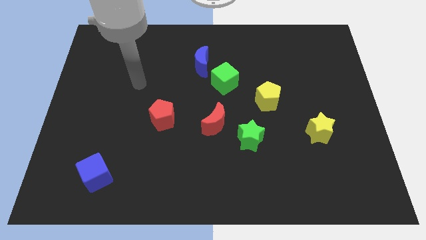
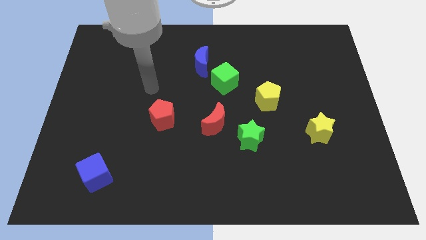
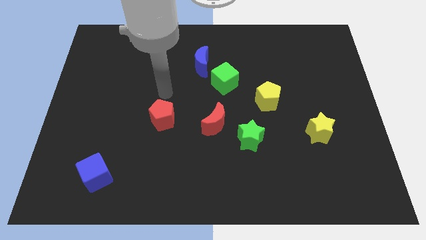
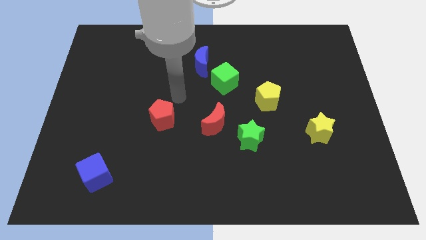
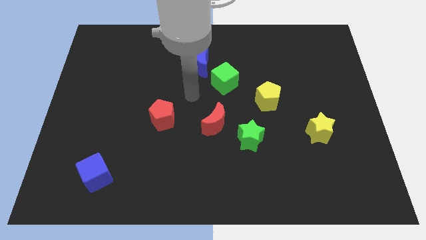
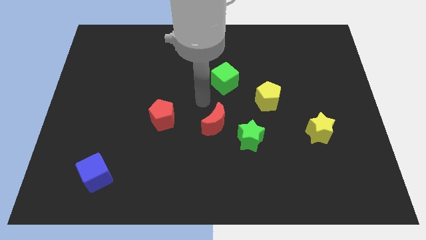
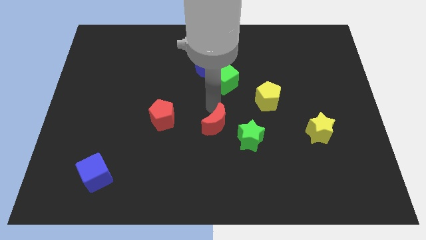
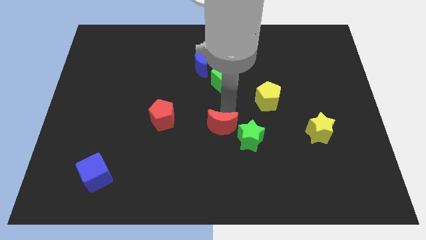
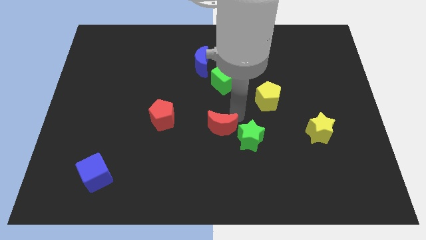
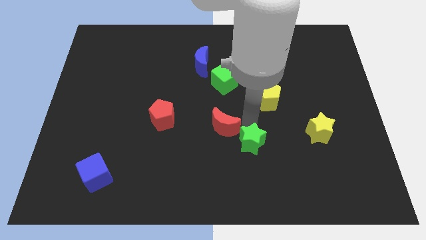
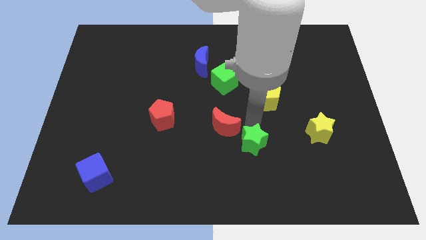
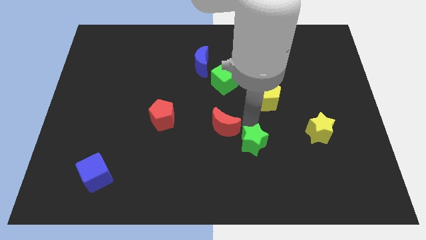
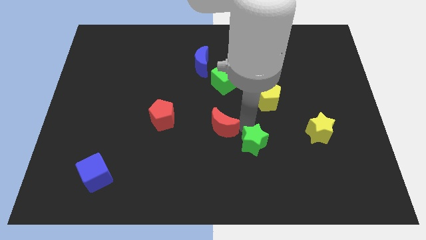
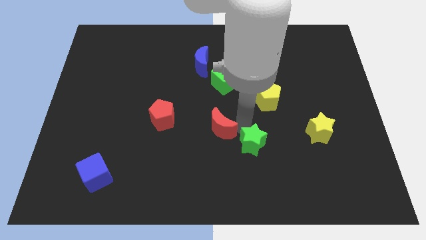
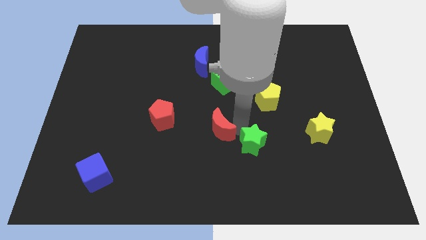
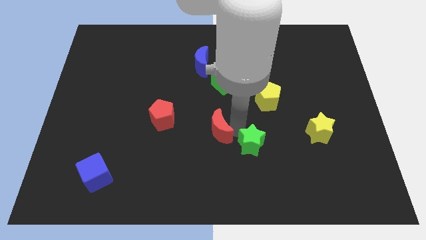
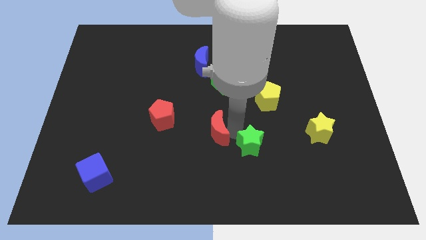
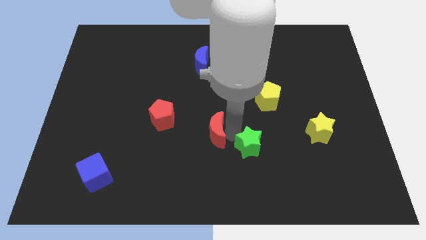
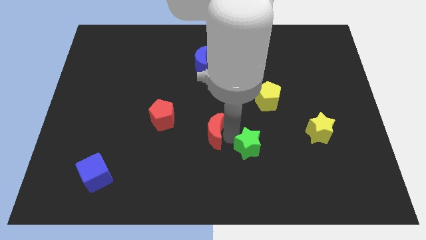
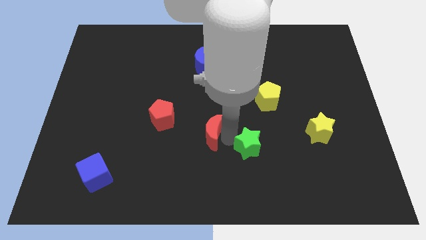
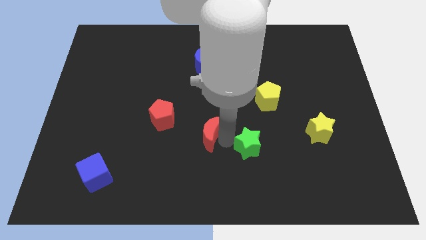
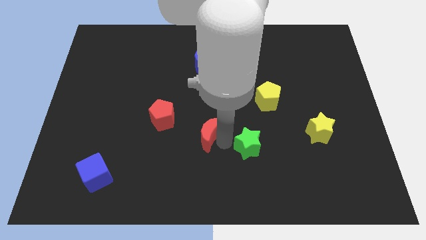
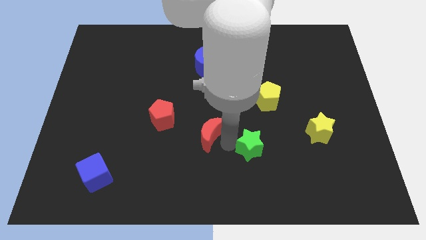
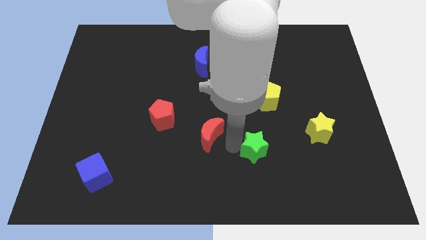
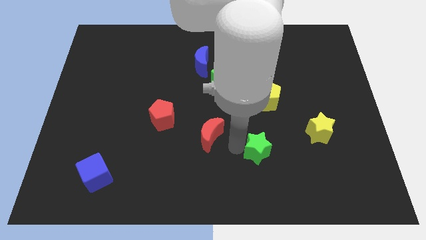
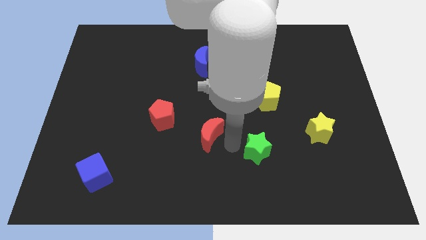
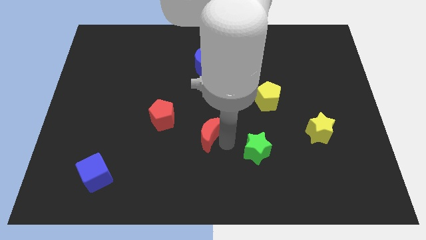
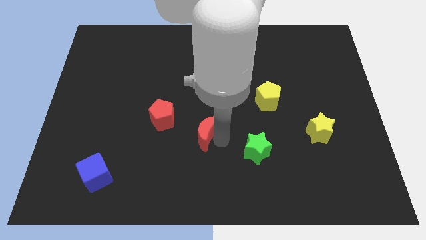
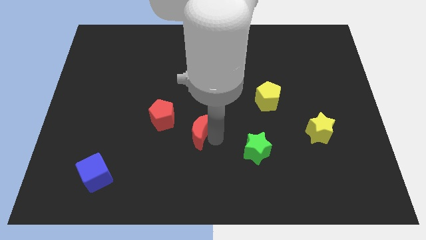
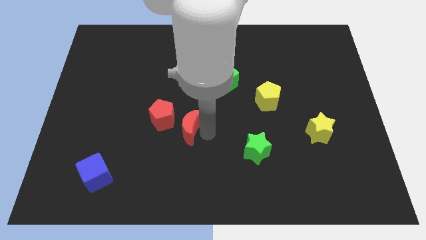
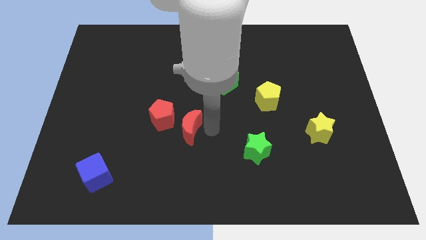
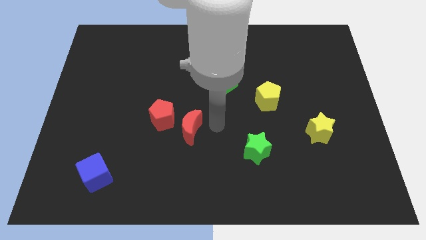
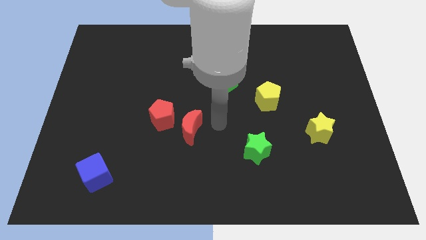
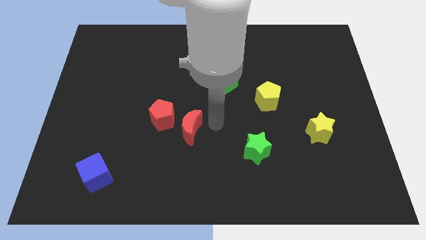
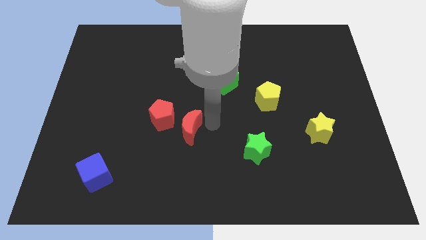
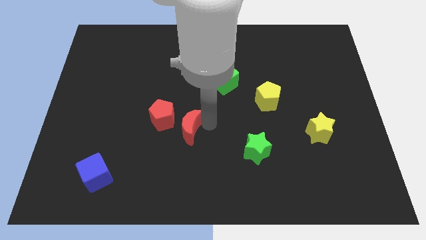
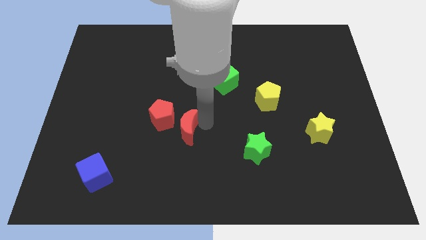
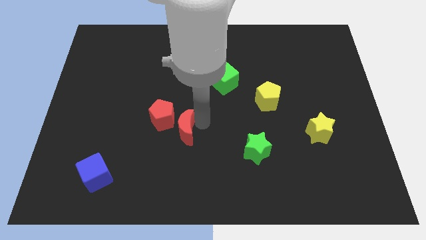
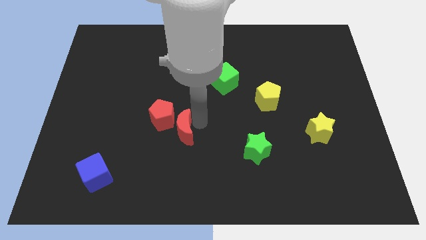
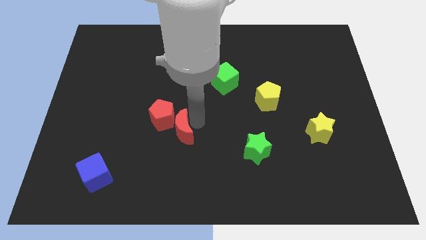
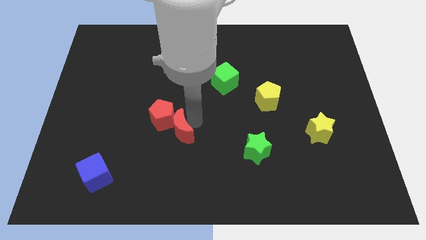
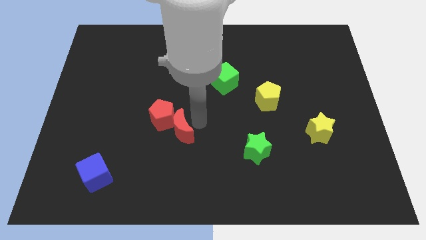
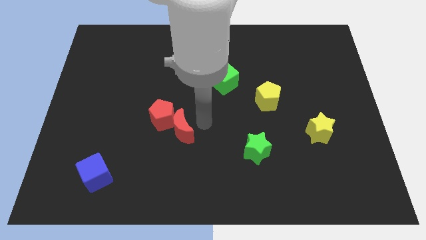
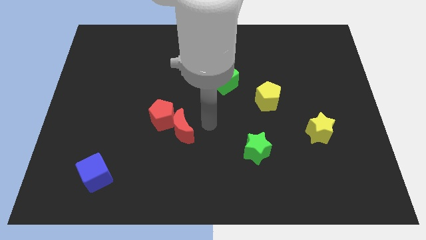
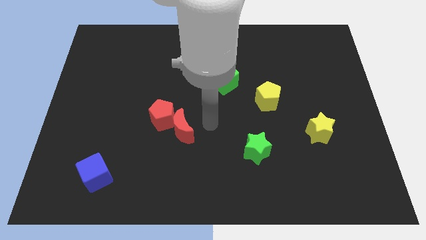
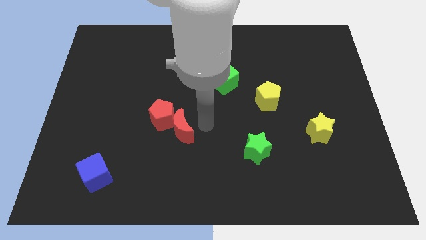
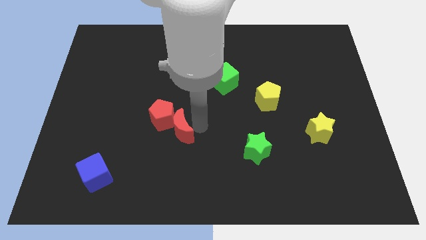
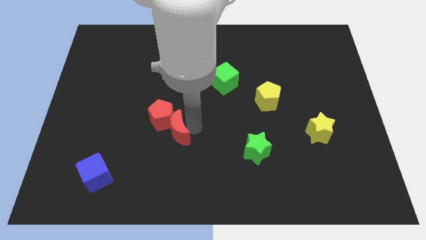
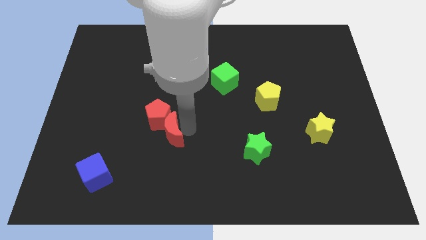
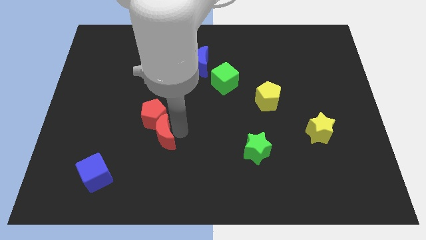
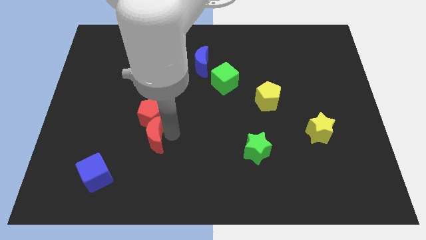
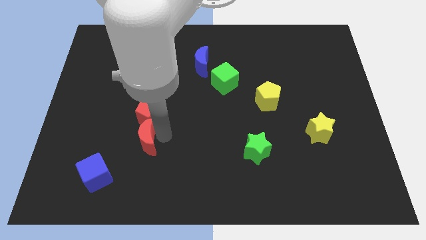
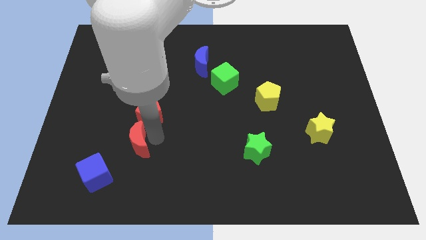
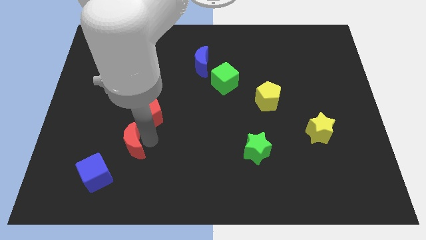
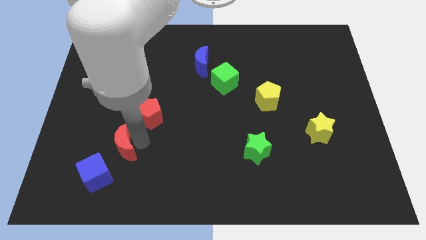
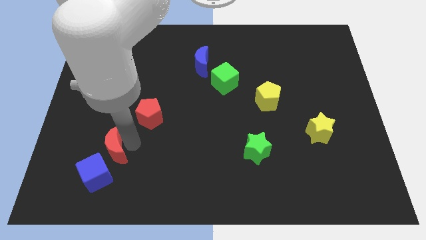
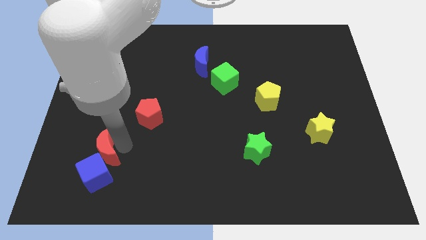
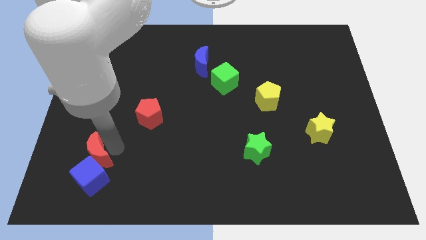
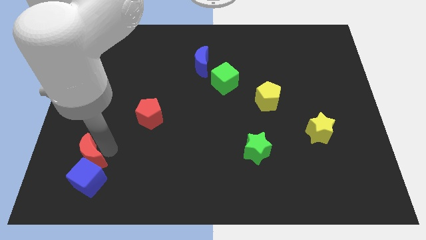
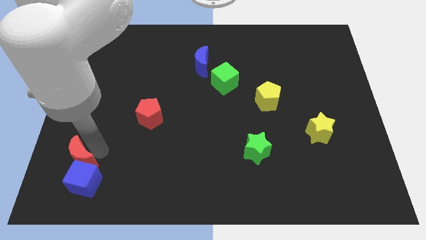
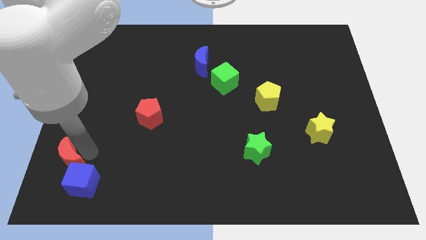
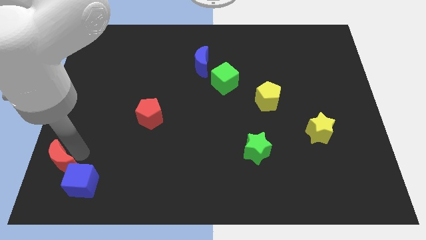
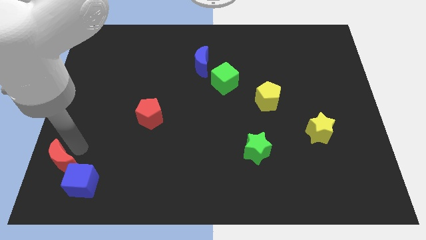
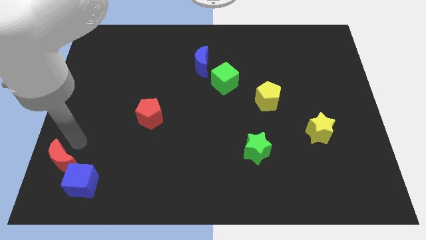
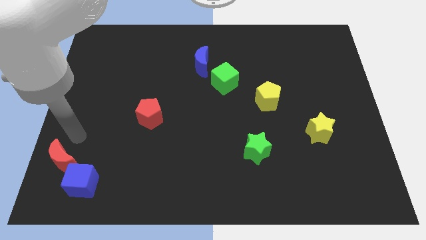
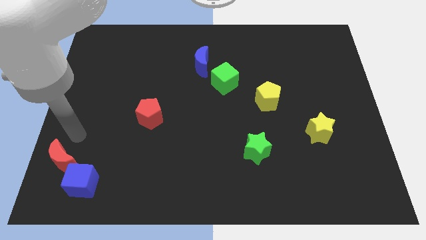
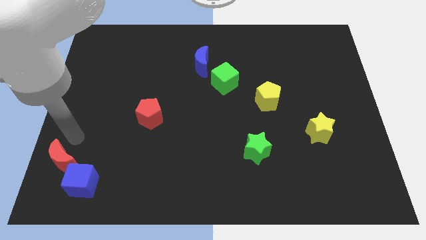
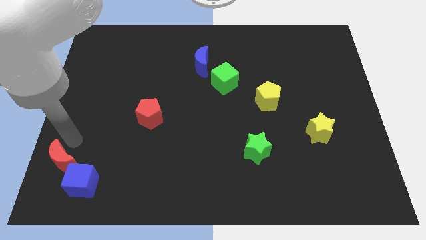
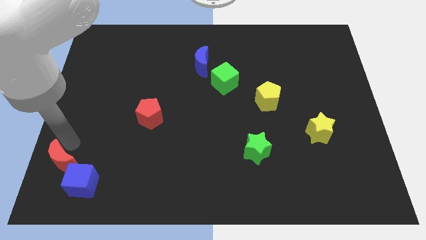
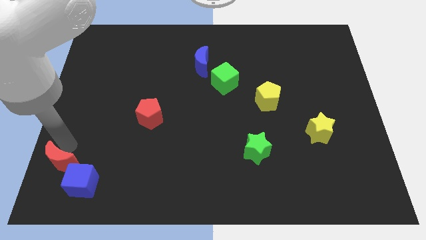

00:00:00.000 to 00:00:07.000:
push the red moon to the lower left corner
